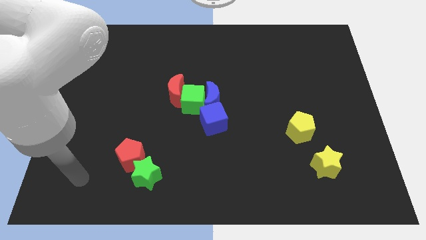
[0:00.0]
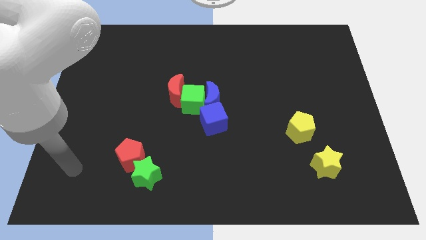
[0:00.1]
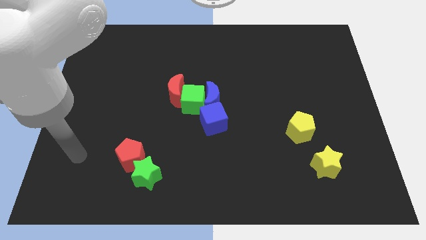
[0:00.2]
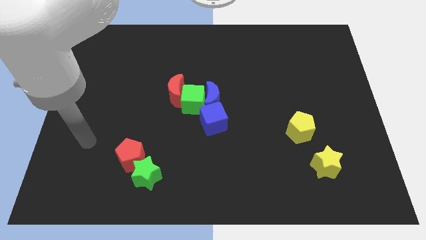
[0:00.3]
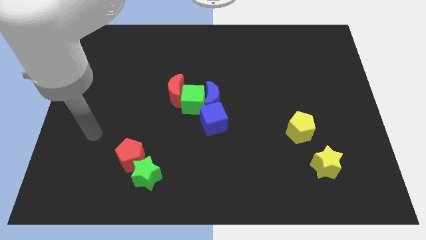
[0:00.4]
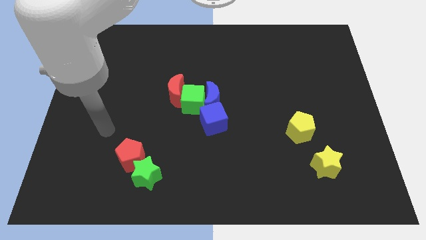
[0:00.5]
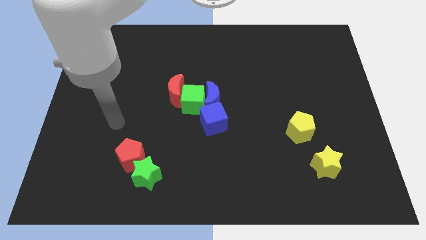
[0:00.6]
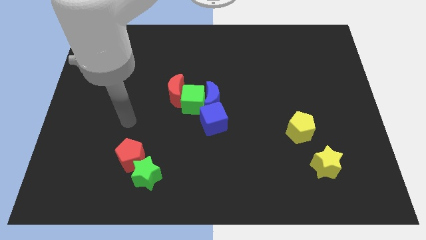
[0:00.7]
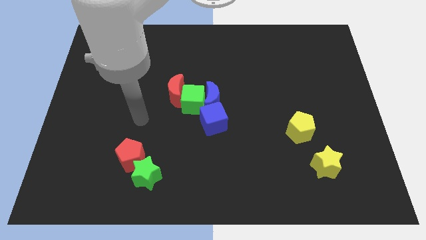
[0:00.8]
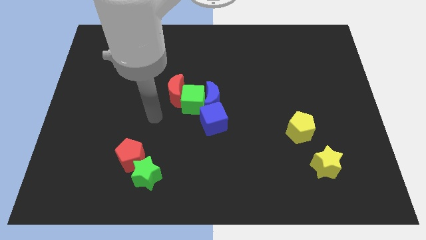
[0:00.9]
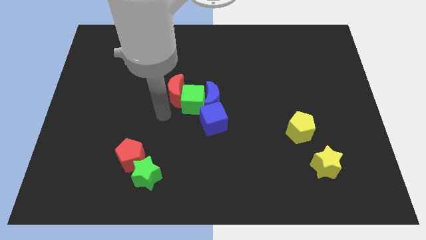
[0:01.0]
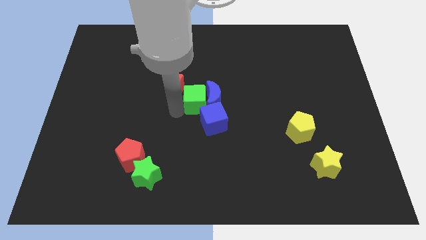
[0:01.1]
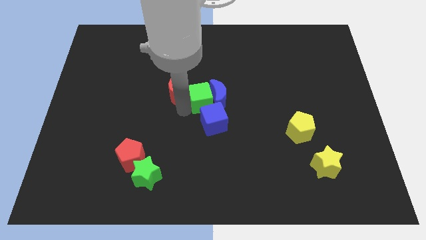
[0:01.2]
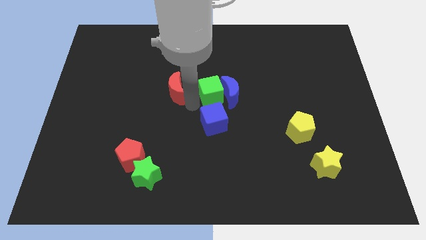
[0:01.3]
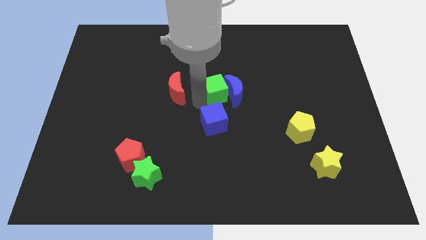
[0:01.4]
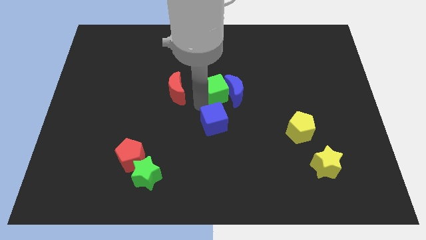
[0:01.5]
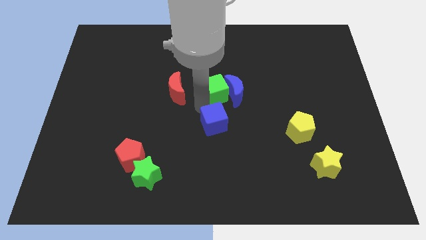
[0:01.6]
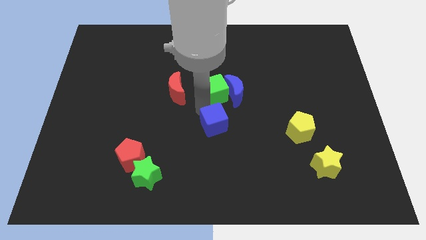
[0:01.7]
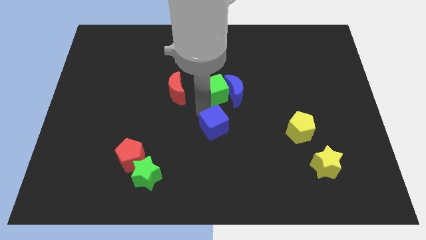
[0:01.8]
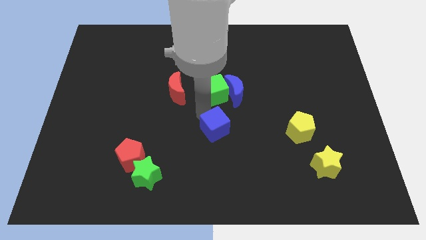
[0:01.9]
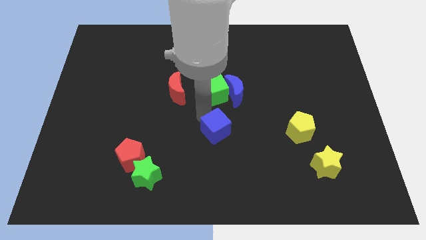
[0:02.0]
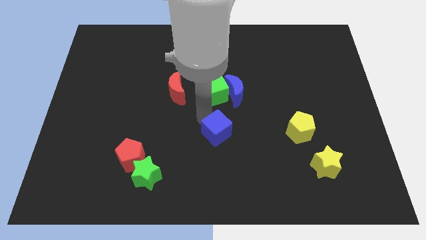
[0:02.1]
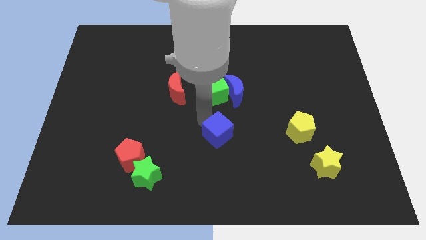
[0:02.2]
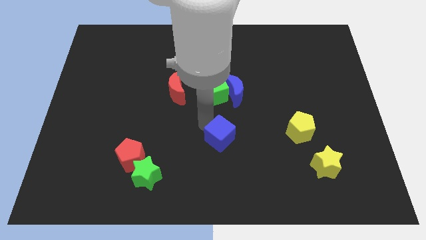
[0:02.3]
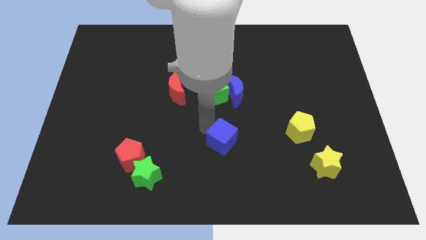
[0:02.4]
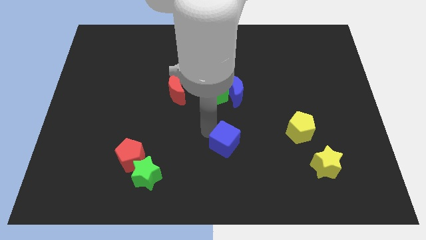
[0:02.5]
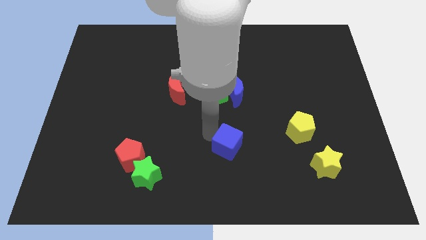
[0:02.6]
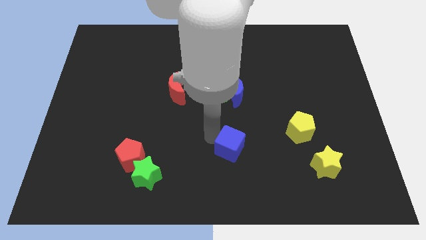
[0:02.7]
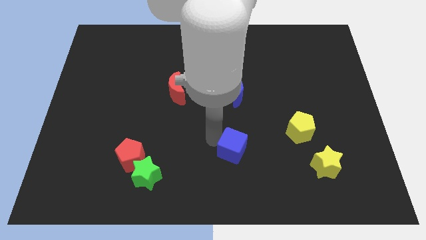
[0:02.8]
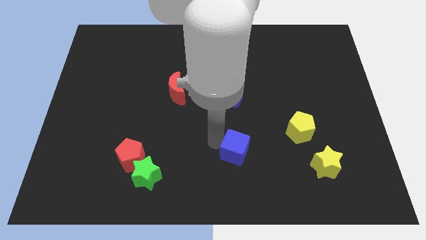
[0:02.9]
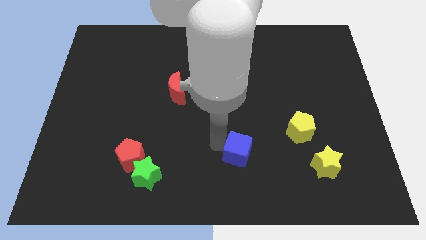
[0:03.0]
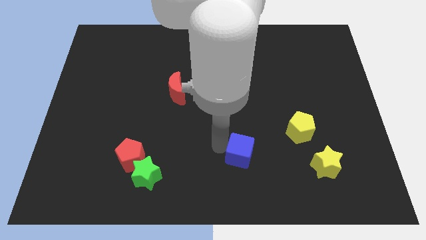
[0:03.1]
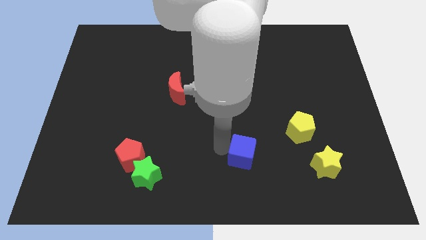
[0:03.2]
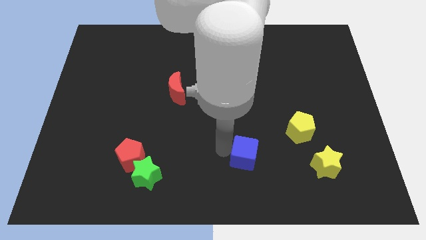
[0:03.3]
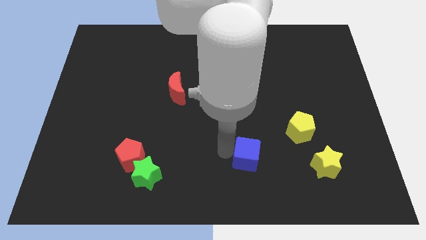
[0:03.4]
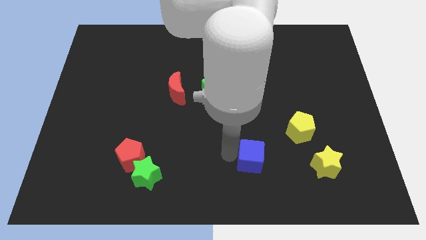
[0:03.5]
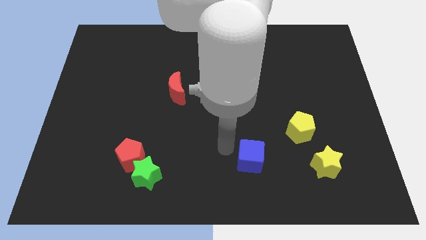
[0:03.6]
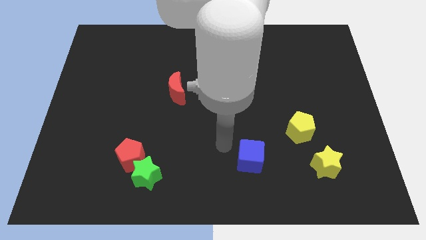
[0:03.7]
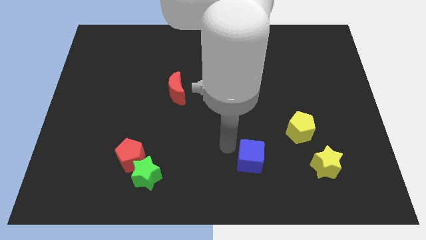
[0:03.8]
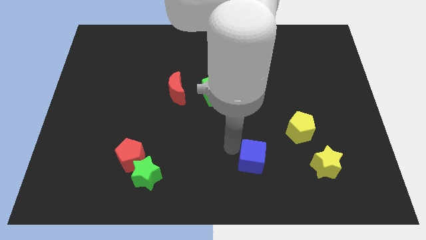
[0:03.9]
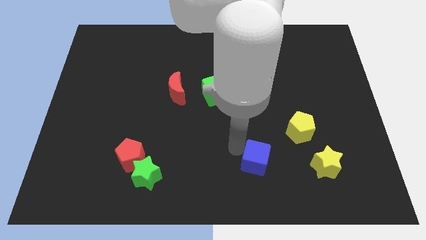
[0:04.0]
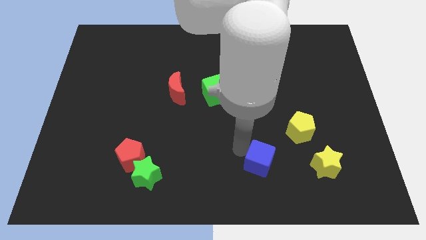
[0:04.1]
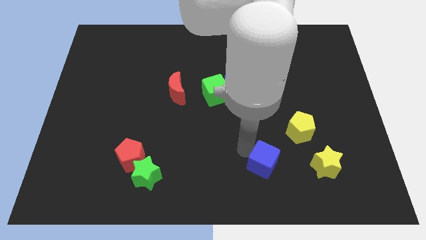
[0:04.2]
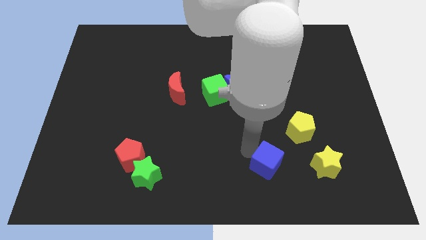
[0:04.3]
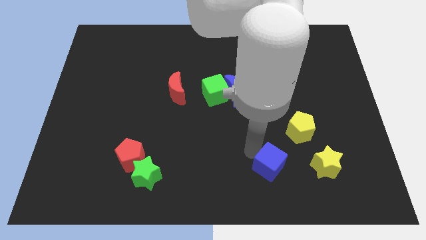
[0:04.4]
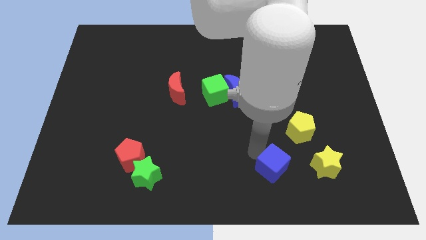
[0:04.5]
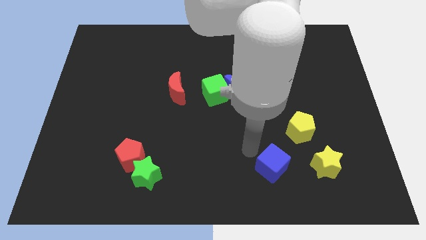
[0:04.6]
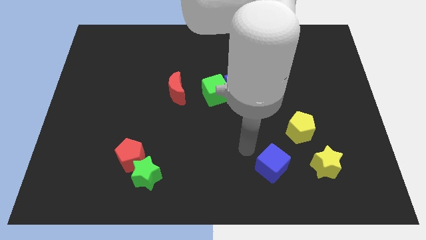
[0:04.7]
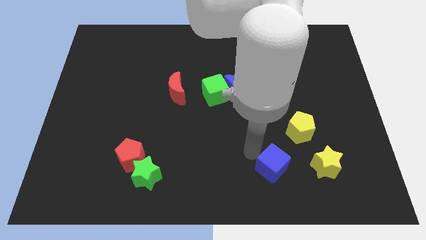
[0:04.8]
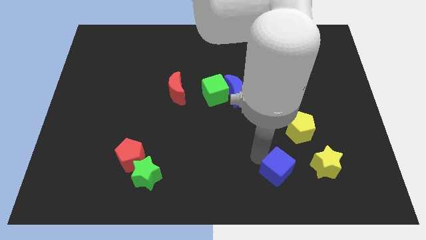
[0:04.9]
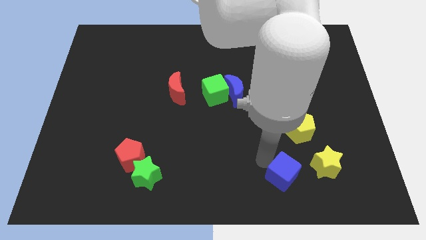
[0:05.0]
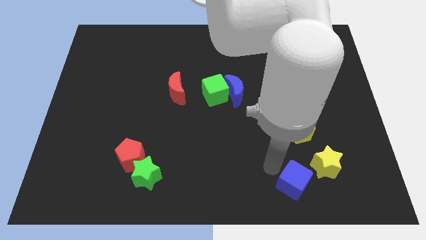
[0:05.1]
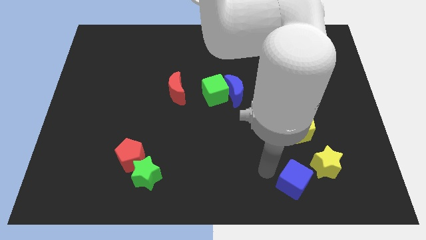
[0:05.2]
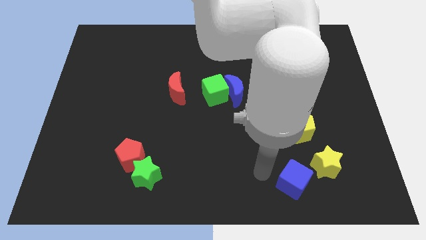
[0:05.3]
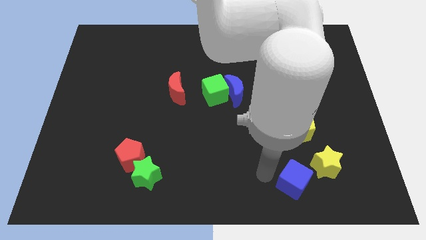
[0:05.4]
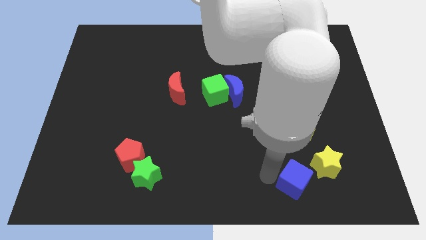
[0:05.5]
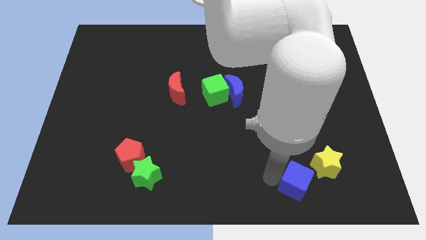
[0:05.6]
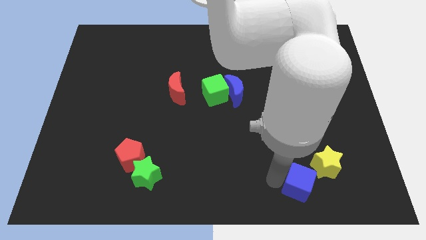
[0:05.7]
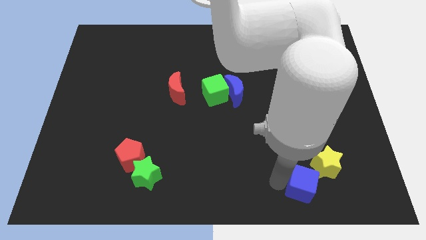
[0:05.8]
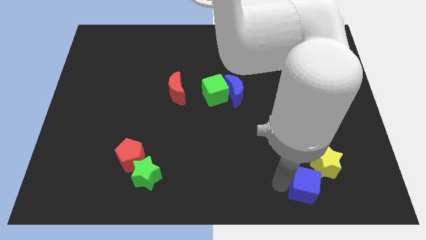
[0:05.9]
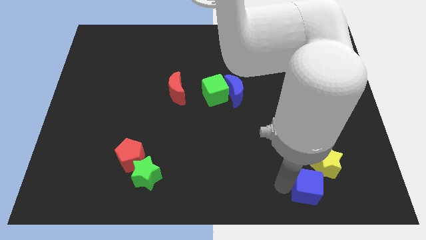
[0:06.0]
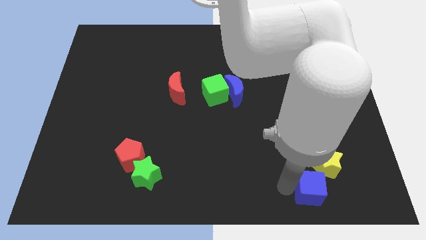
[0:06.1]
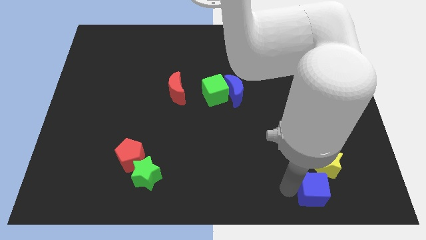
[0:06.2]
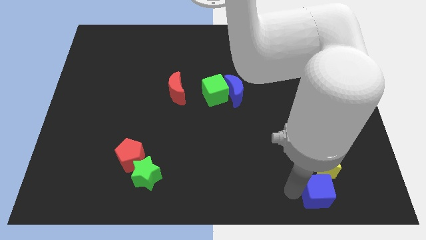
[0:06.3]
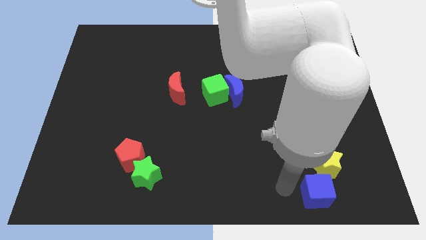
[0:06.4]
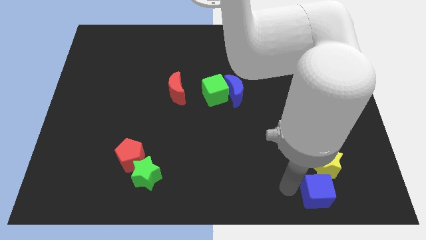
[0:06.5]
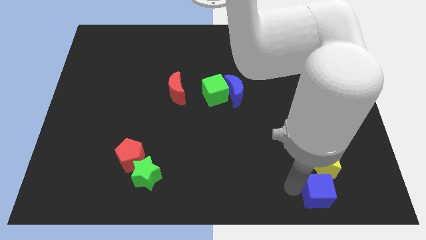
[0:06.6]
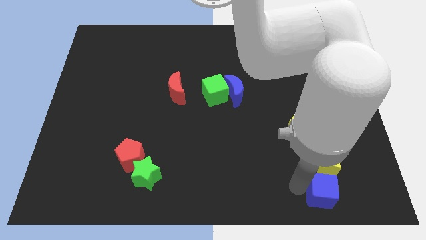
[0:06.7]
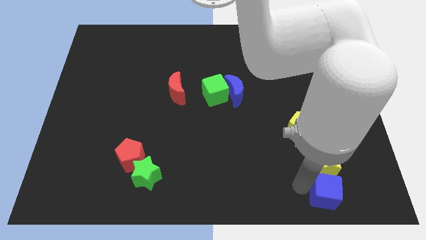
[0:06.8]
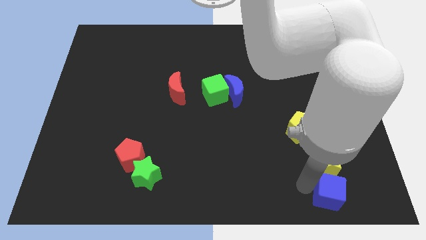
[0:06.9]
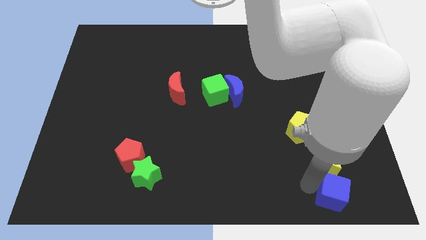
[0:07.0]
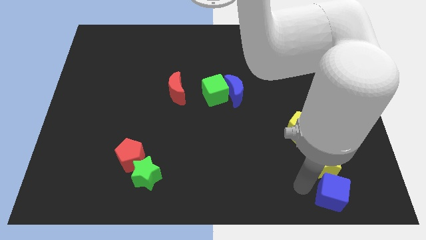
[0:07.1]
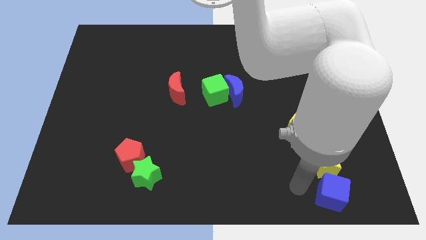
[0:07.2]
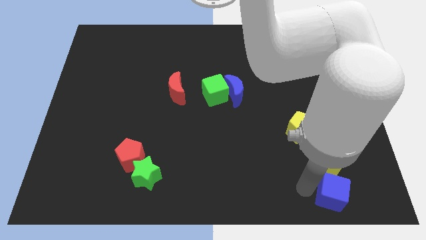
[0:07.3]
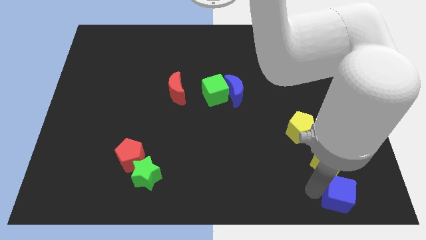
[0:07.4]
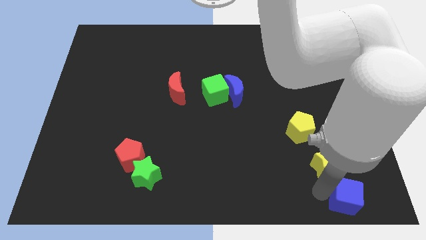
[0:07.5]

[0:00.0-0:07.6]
move the blue cube to the lower right corner
